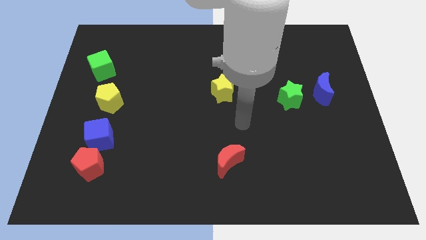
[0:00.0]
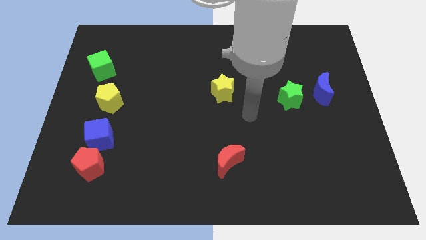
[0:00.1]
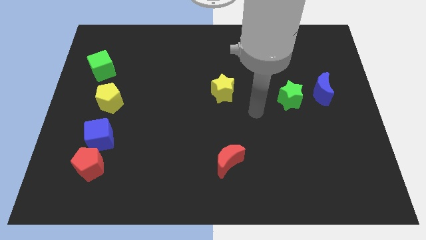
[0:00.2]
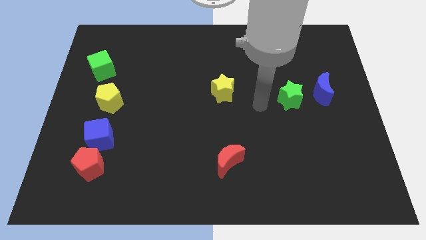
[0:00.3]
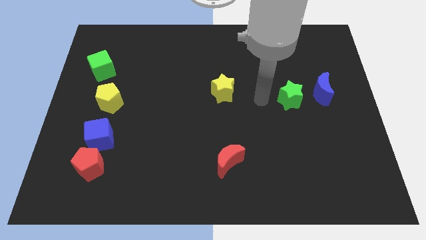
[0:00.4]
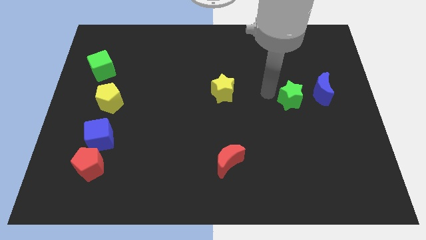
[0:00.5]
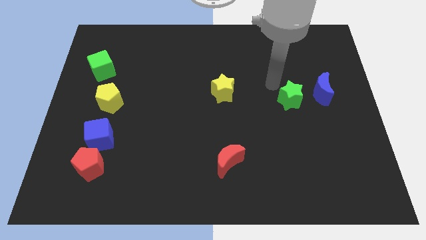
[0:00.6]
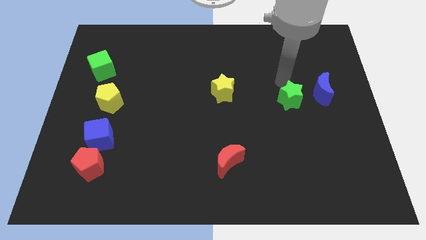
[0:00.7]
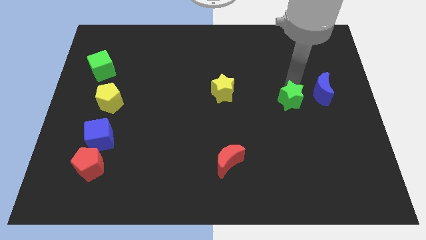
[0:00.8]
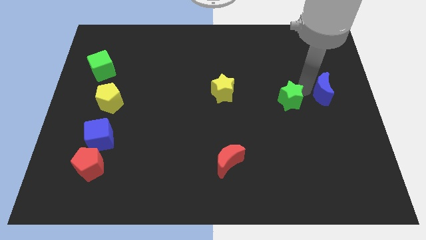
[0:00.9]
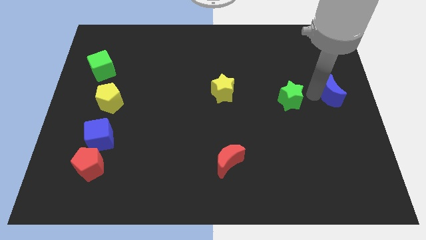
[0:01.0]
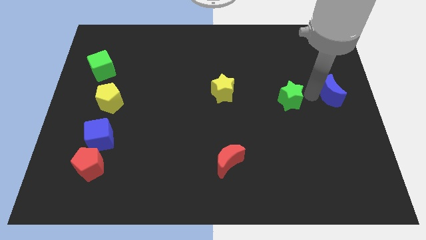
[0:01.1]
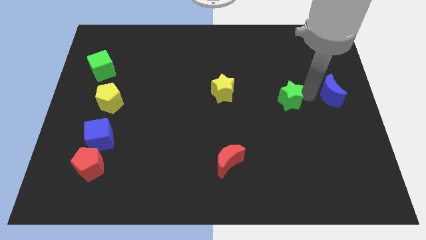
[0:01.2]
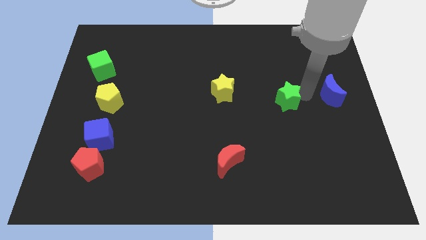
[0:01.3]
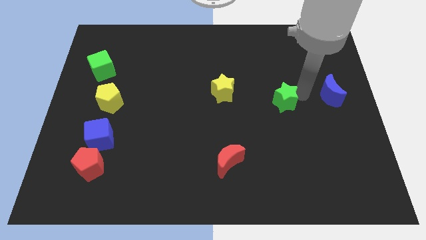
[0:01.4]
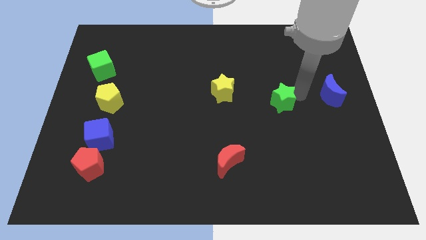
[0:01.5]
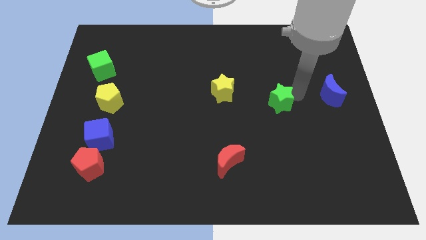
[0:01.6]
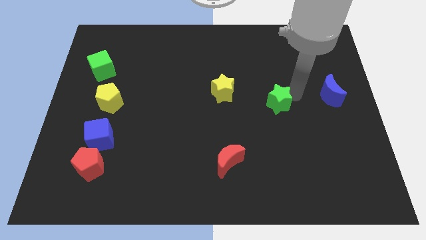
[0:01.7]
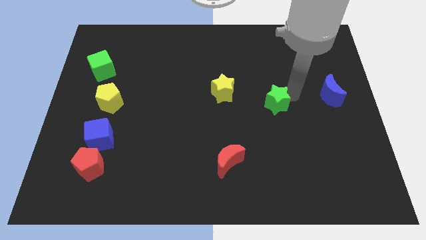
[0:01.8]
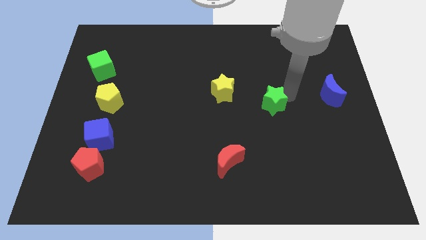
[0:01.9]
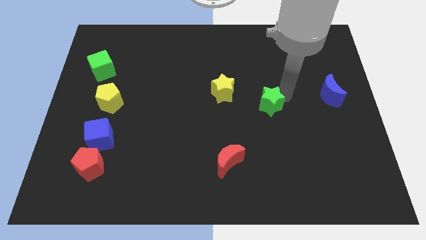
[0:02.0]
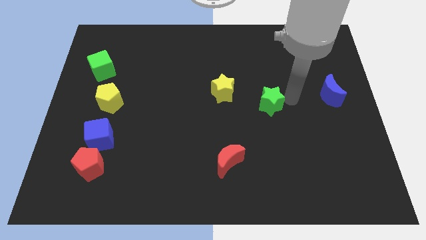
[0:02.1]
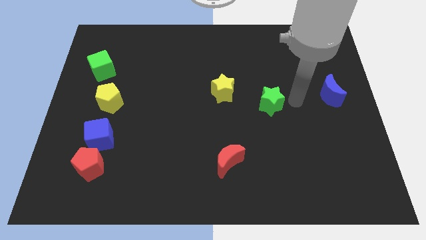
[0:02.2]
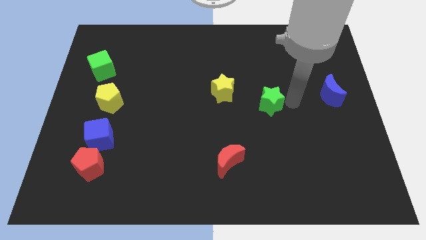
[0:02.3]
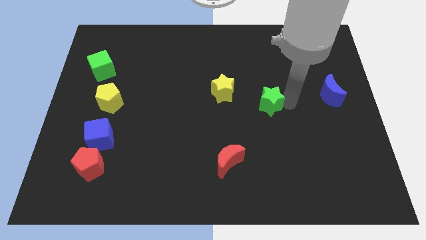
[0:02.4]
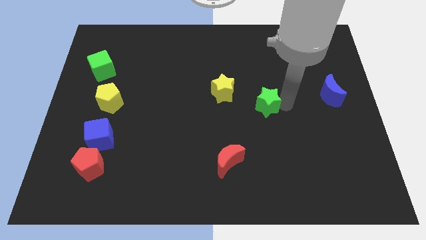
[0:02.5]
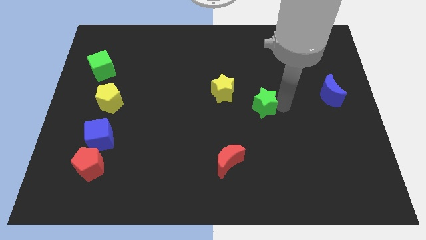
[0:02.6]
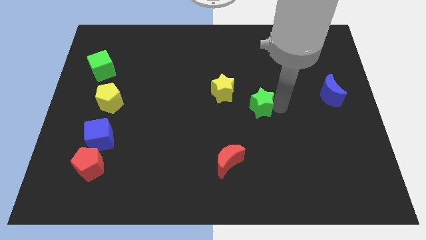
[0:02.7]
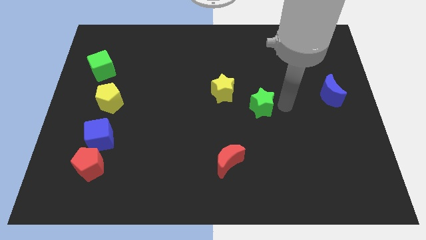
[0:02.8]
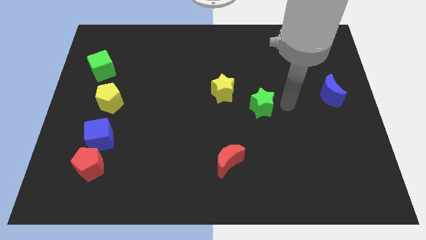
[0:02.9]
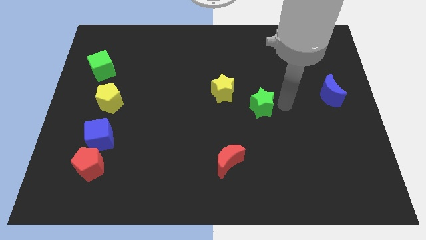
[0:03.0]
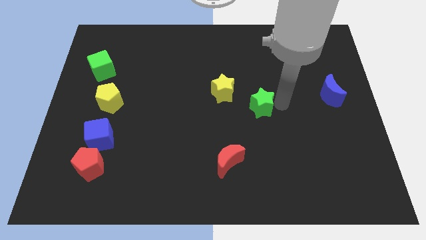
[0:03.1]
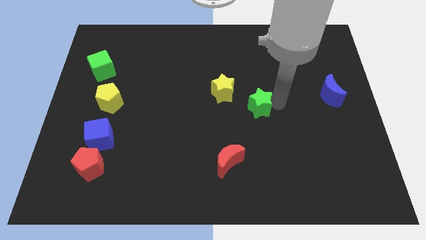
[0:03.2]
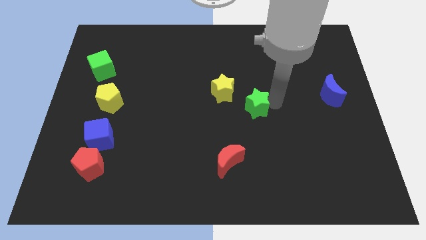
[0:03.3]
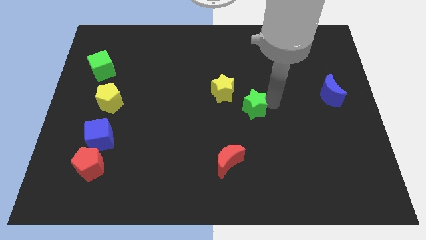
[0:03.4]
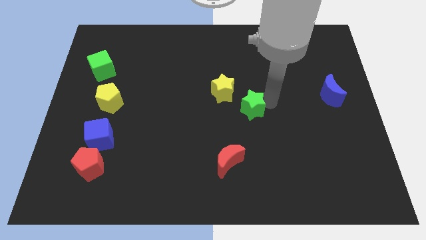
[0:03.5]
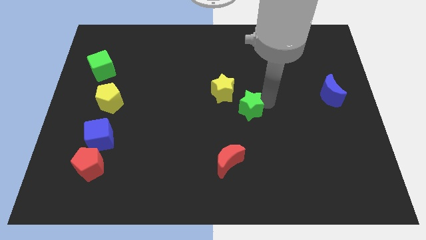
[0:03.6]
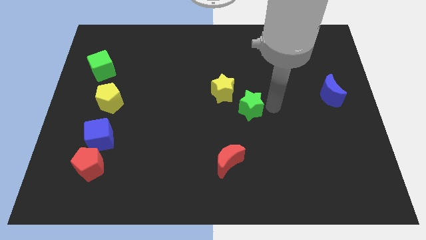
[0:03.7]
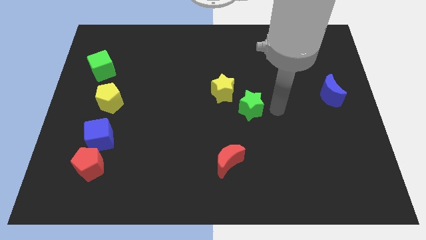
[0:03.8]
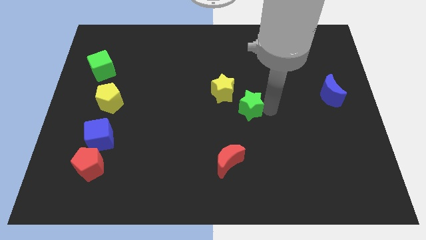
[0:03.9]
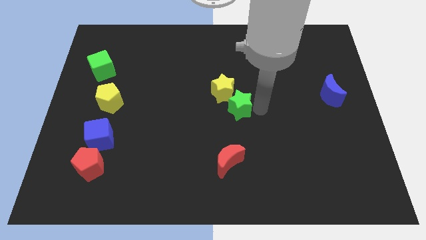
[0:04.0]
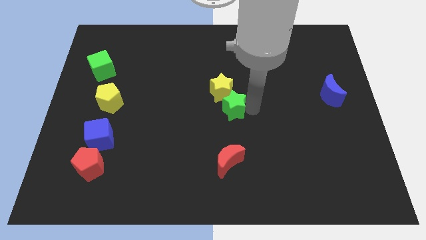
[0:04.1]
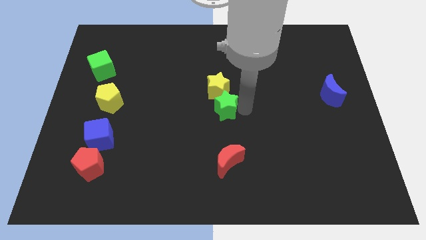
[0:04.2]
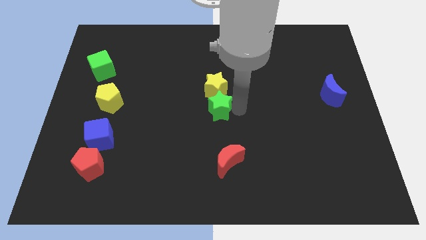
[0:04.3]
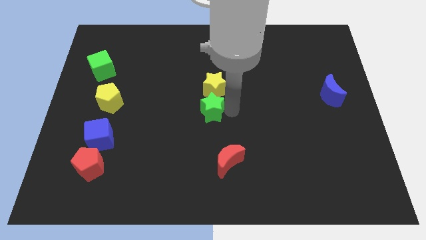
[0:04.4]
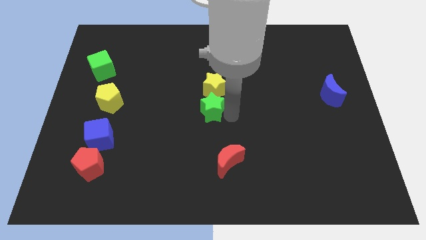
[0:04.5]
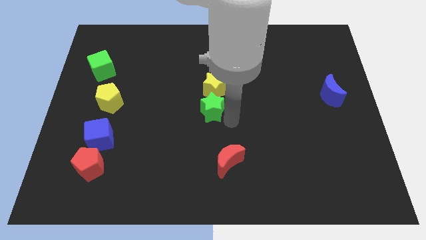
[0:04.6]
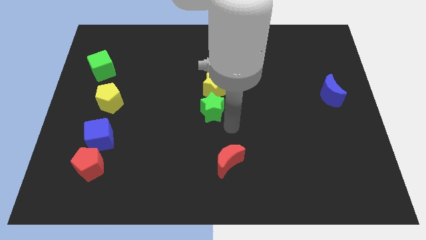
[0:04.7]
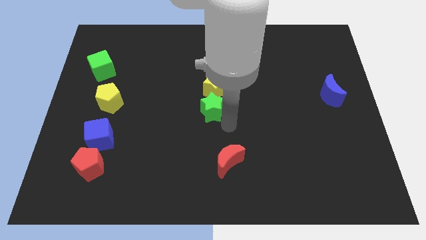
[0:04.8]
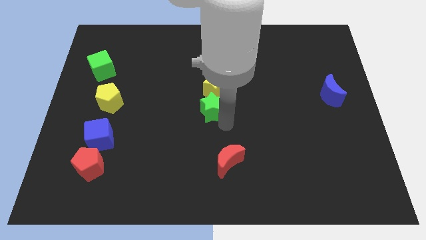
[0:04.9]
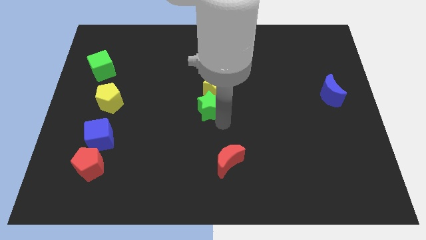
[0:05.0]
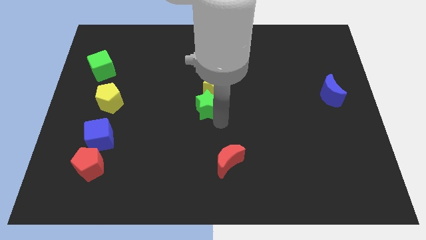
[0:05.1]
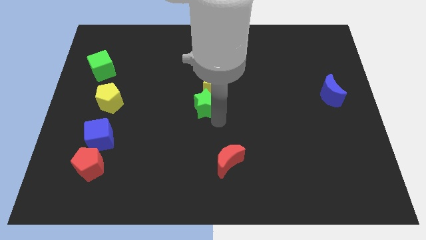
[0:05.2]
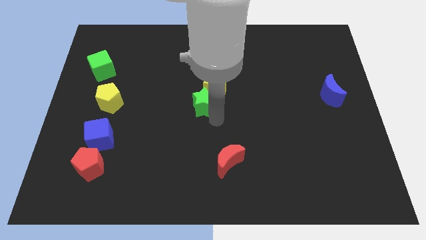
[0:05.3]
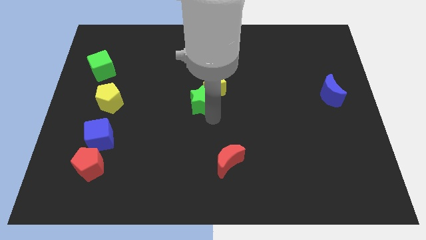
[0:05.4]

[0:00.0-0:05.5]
put the green star just left of the yellow star

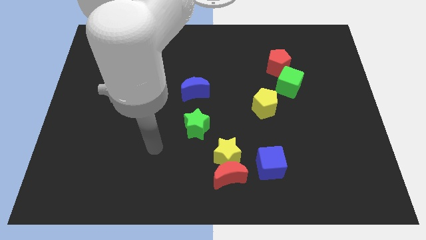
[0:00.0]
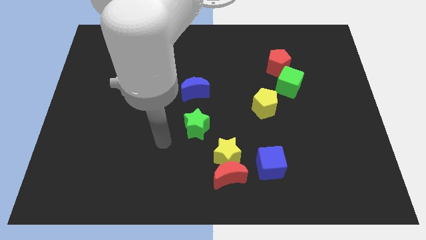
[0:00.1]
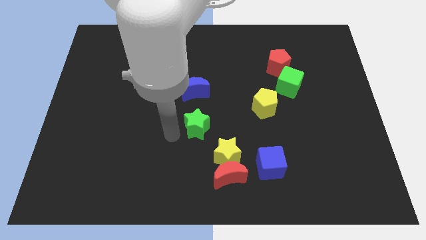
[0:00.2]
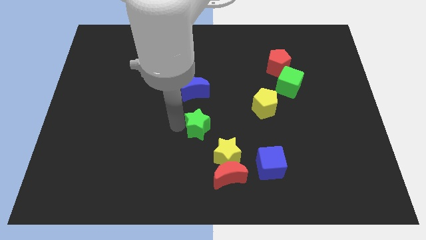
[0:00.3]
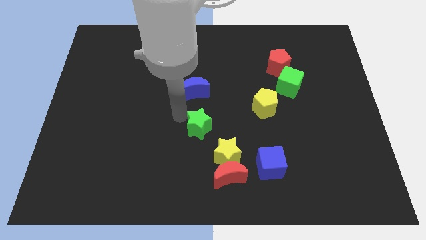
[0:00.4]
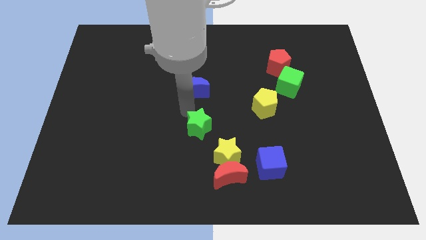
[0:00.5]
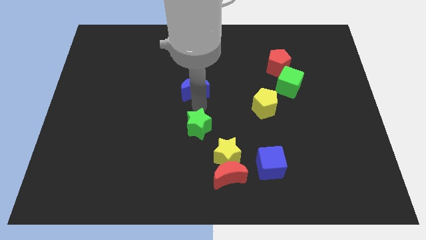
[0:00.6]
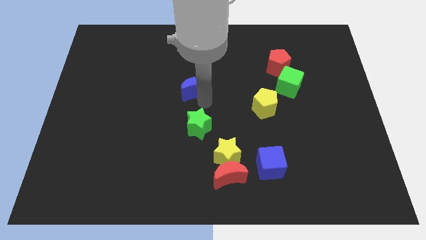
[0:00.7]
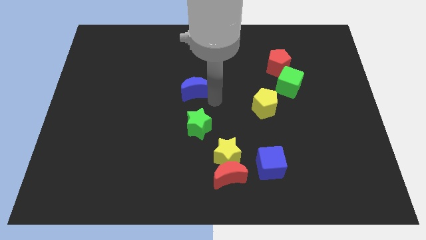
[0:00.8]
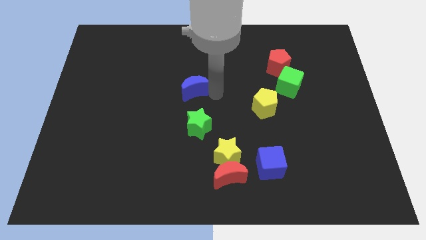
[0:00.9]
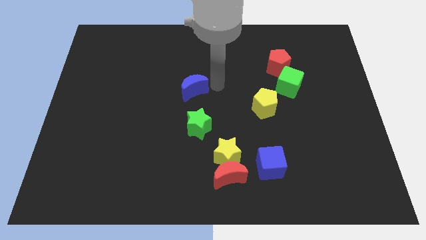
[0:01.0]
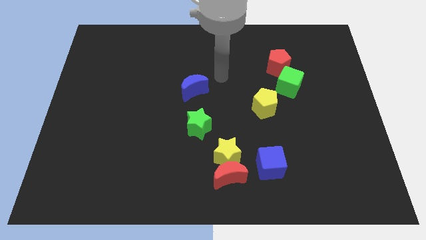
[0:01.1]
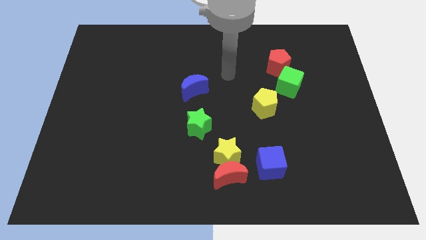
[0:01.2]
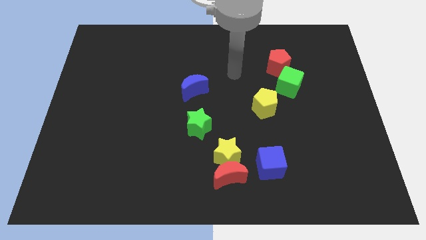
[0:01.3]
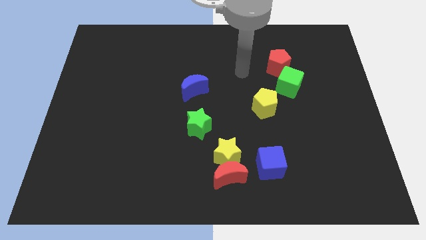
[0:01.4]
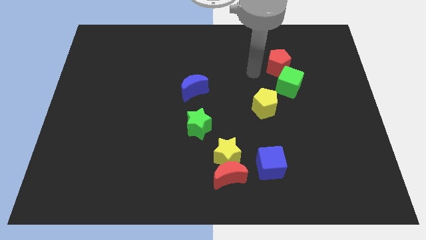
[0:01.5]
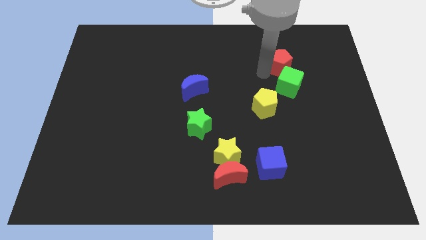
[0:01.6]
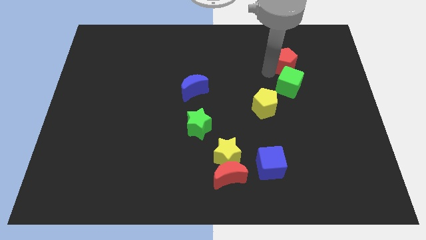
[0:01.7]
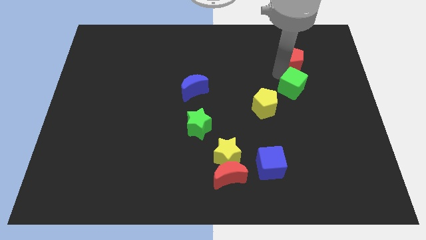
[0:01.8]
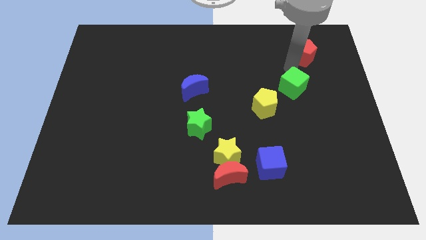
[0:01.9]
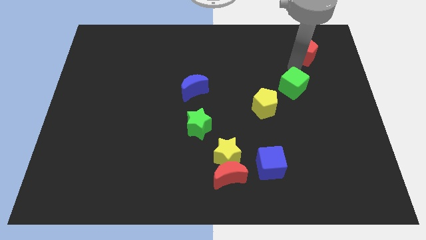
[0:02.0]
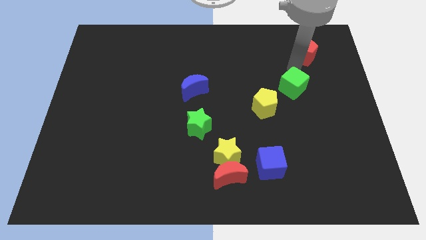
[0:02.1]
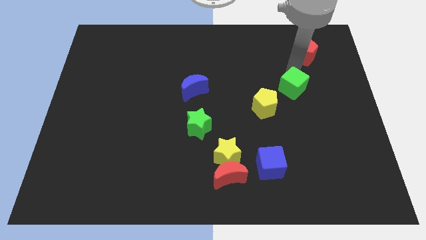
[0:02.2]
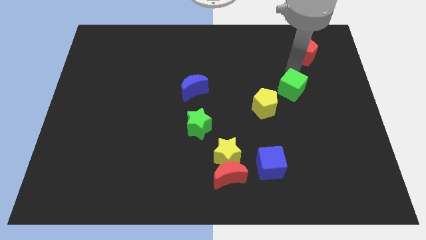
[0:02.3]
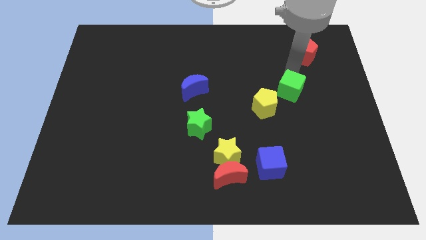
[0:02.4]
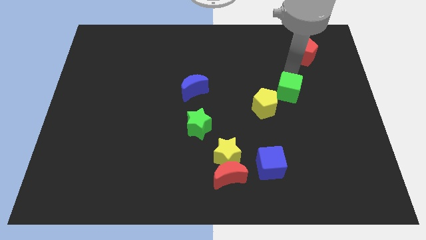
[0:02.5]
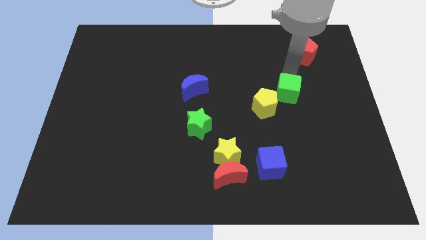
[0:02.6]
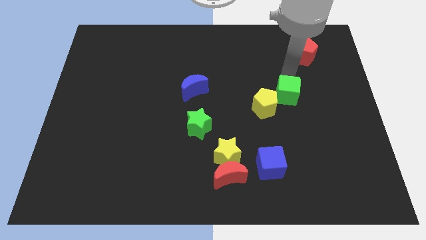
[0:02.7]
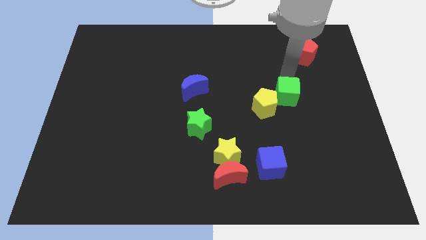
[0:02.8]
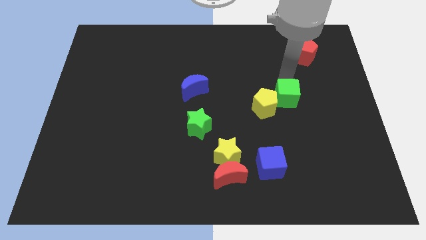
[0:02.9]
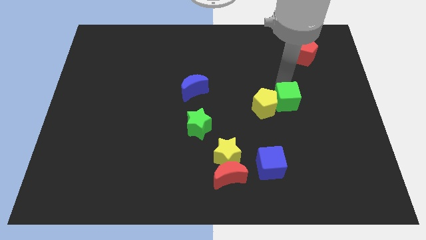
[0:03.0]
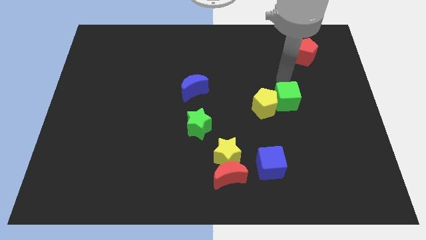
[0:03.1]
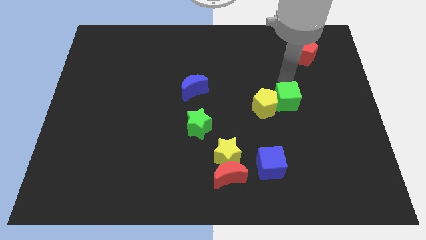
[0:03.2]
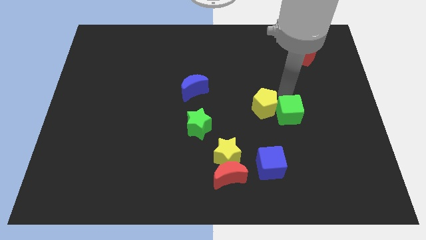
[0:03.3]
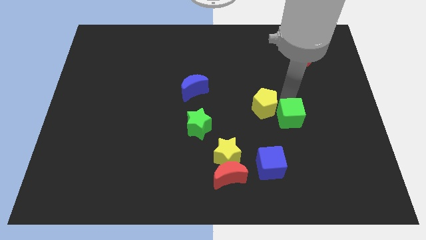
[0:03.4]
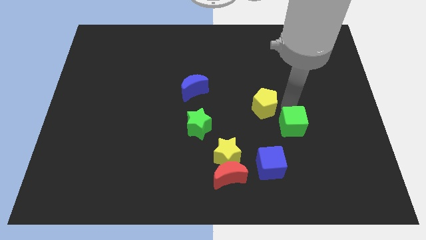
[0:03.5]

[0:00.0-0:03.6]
slide the green cube diagonally up and to the right of the blue cube
